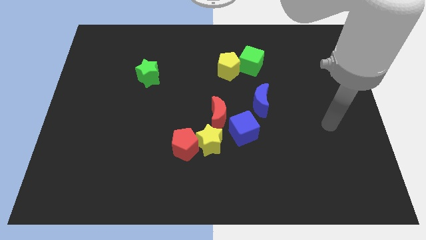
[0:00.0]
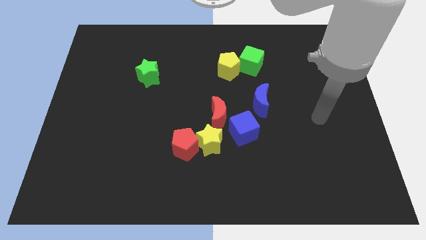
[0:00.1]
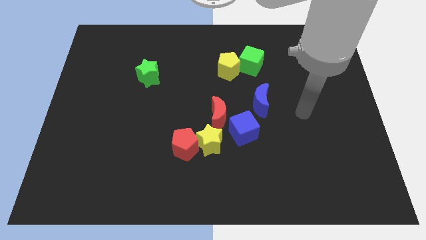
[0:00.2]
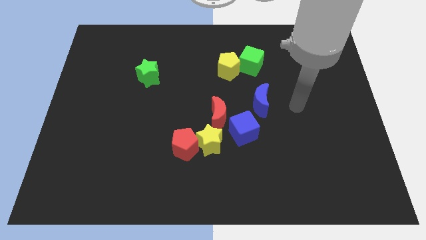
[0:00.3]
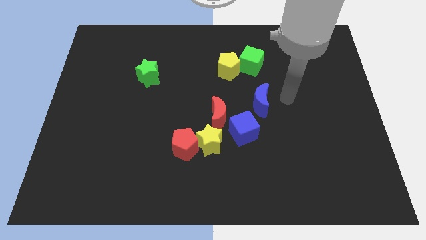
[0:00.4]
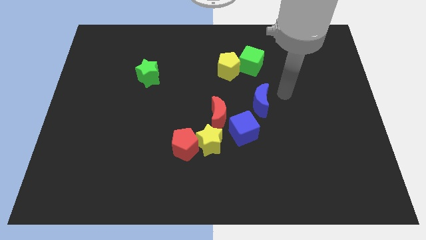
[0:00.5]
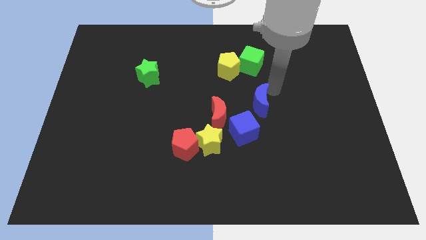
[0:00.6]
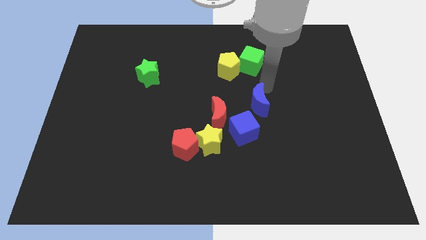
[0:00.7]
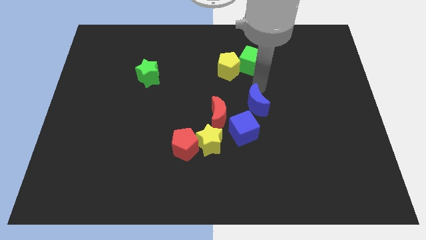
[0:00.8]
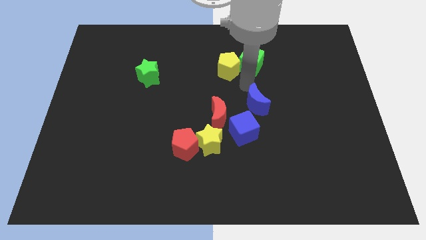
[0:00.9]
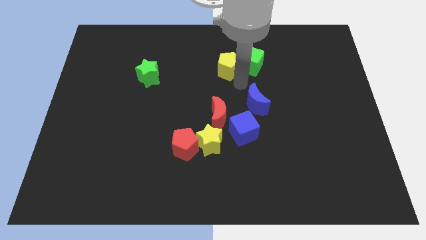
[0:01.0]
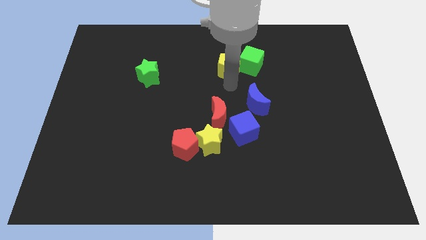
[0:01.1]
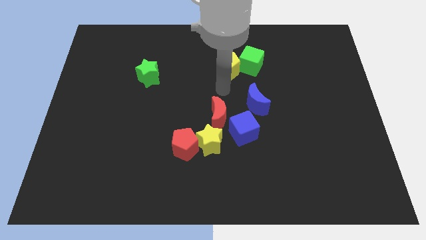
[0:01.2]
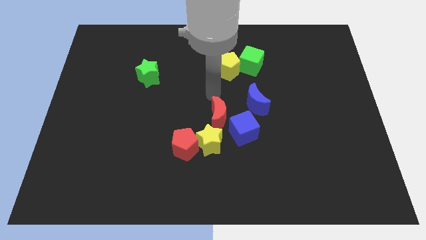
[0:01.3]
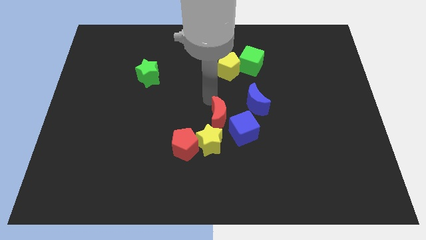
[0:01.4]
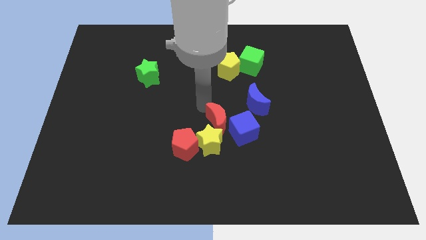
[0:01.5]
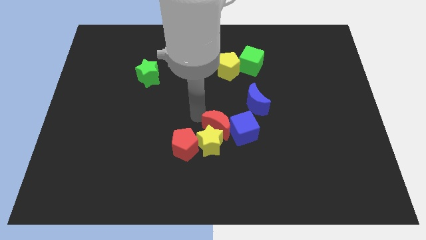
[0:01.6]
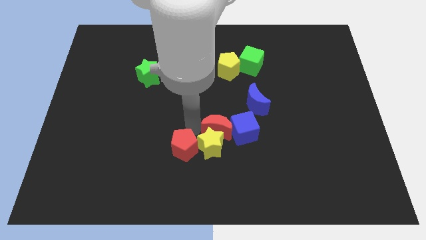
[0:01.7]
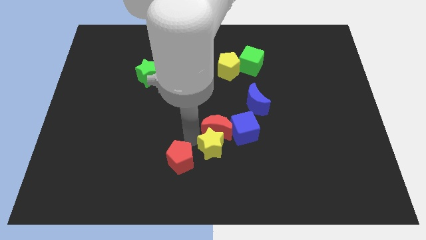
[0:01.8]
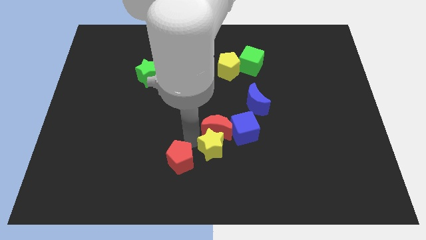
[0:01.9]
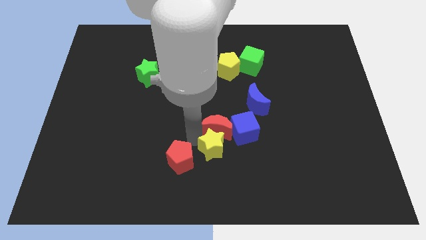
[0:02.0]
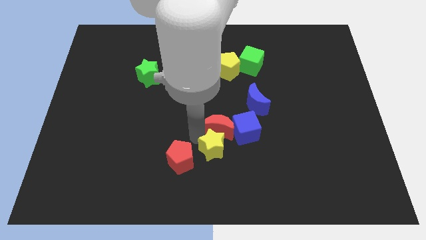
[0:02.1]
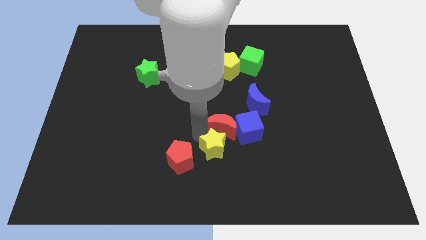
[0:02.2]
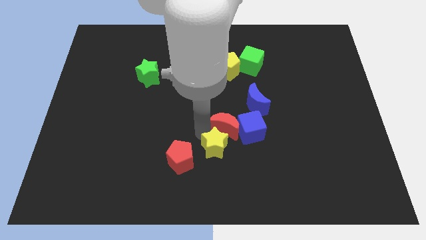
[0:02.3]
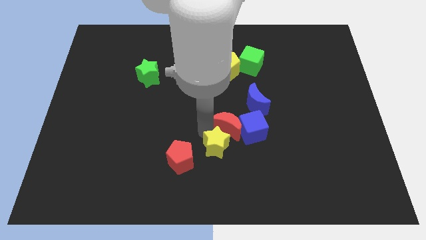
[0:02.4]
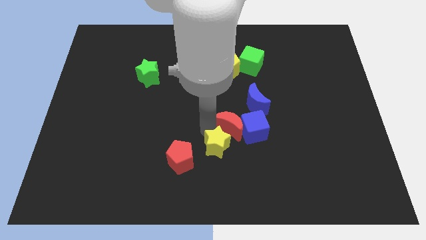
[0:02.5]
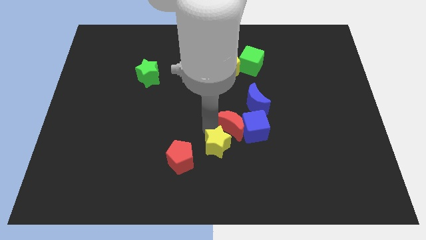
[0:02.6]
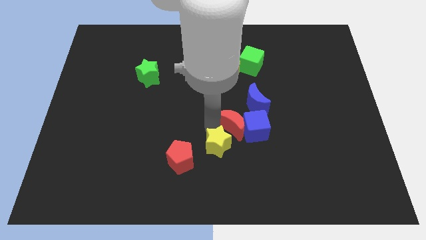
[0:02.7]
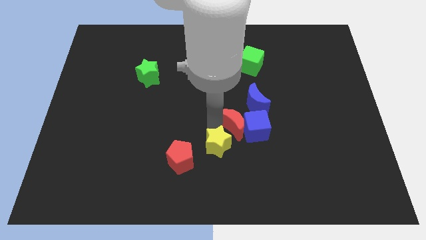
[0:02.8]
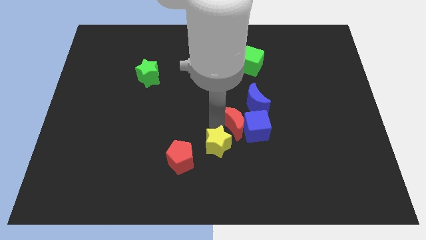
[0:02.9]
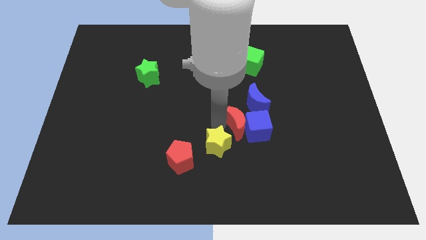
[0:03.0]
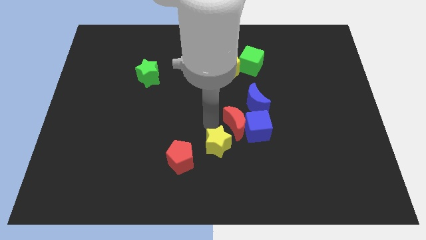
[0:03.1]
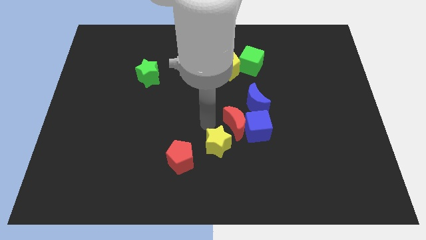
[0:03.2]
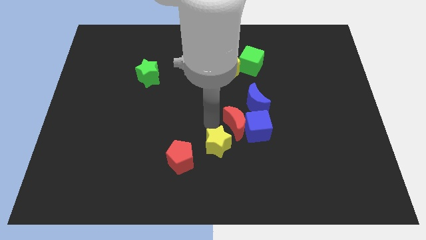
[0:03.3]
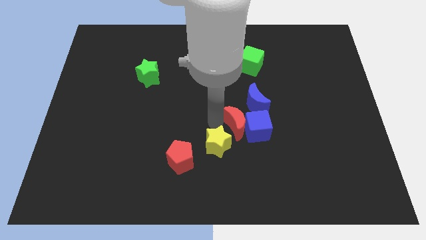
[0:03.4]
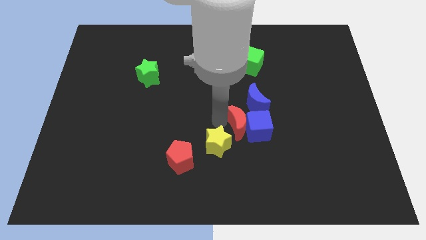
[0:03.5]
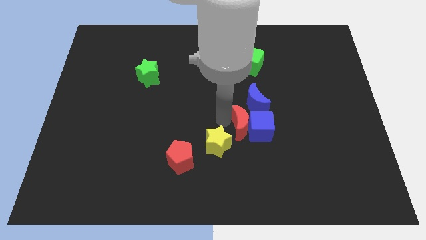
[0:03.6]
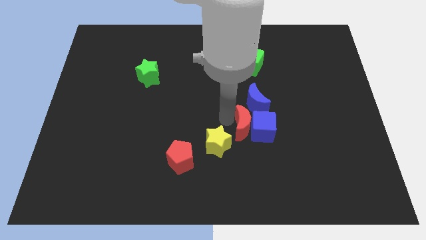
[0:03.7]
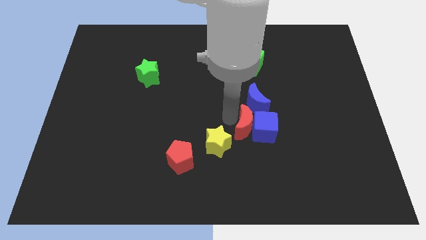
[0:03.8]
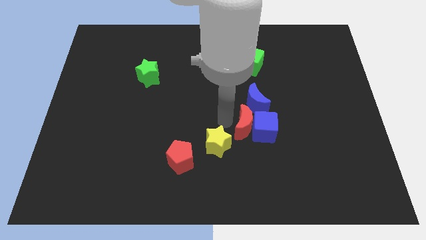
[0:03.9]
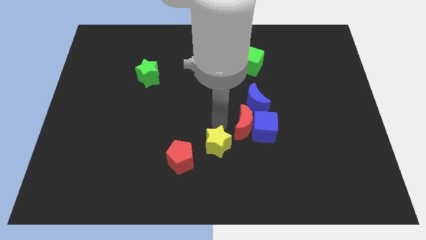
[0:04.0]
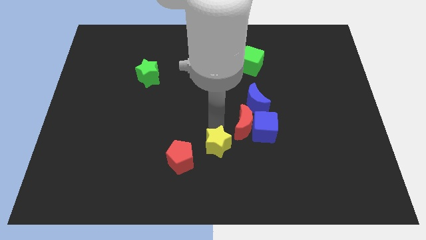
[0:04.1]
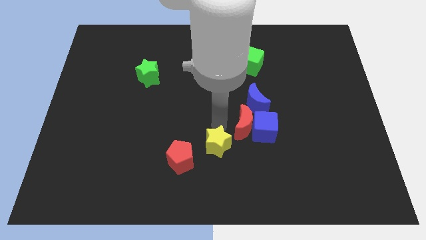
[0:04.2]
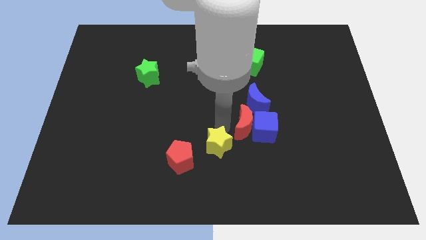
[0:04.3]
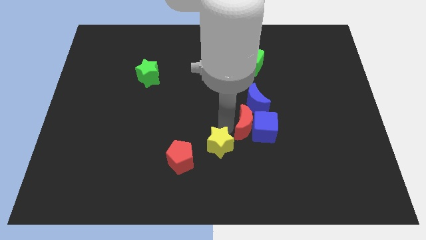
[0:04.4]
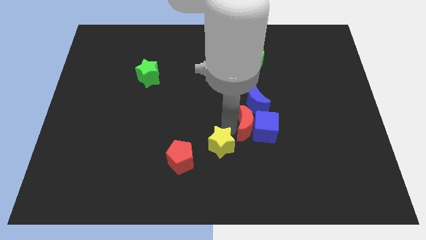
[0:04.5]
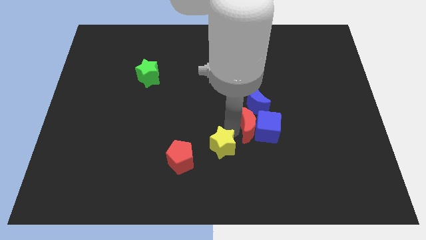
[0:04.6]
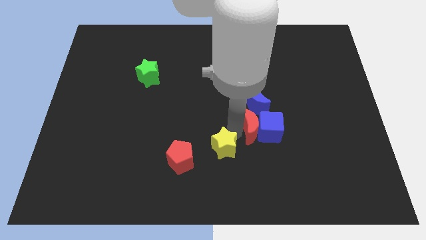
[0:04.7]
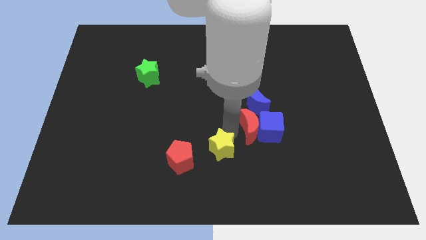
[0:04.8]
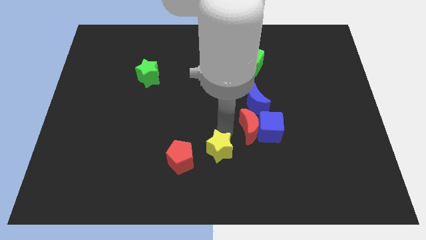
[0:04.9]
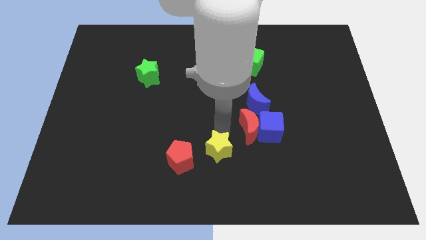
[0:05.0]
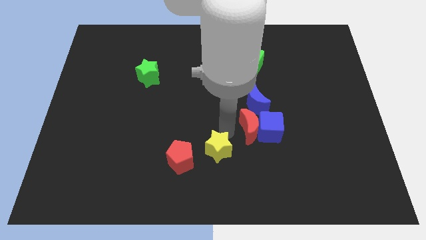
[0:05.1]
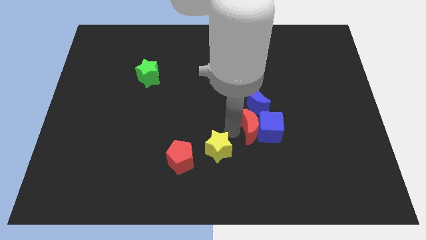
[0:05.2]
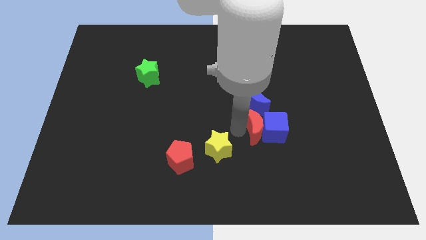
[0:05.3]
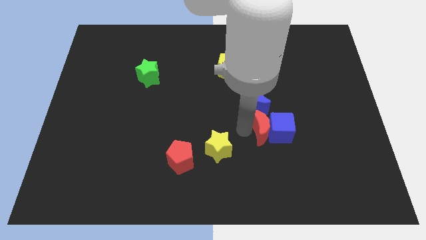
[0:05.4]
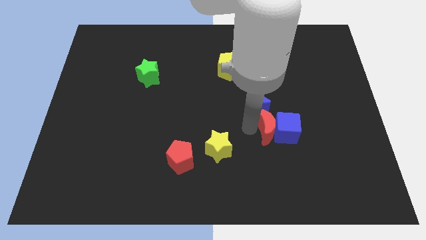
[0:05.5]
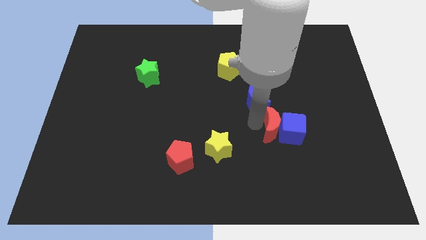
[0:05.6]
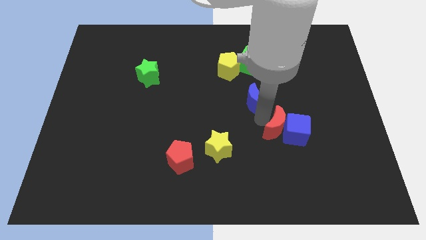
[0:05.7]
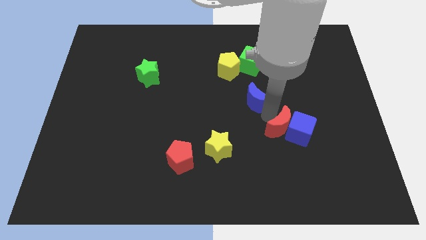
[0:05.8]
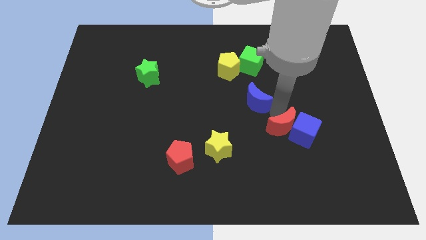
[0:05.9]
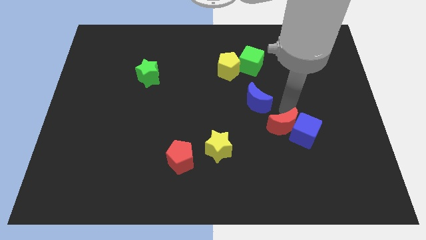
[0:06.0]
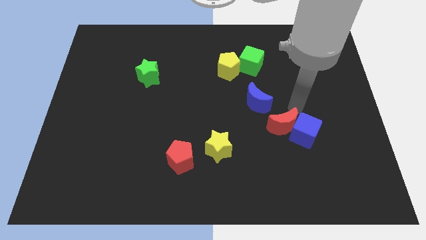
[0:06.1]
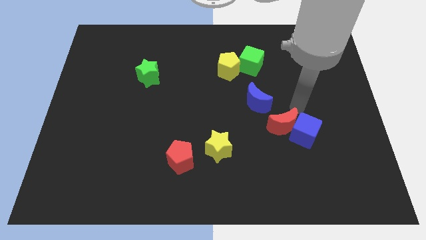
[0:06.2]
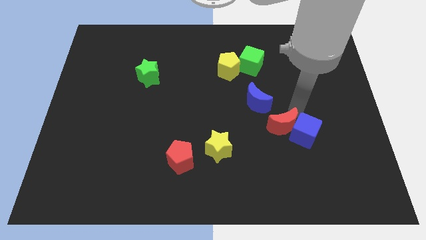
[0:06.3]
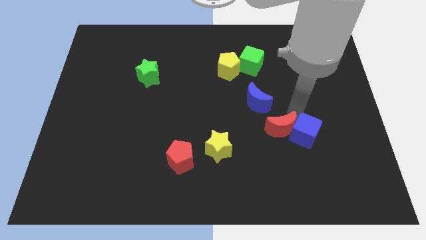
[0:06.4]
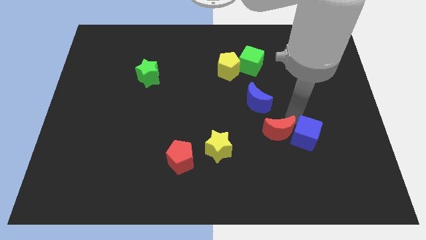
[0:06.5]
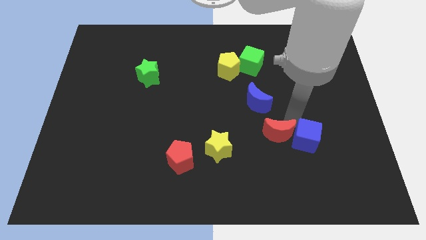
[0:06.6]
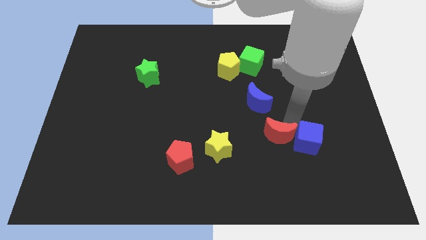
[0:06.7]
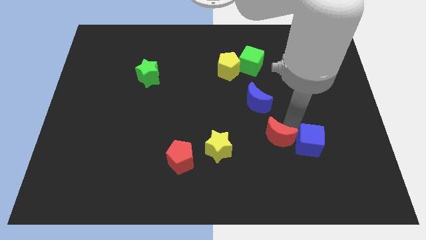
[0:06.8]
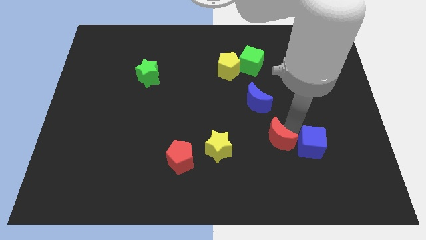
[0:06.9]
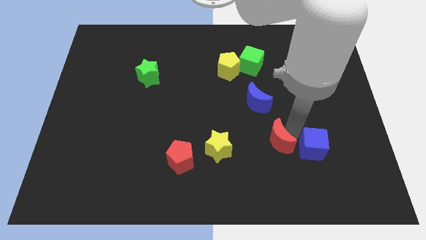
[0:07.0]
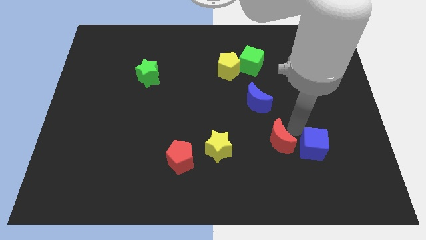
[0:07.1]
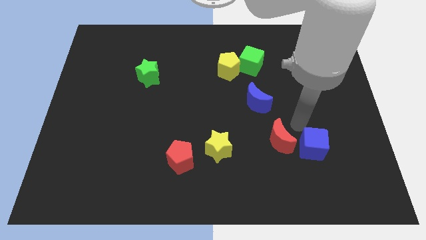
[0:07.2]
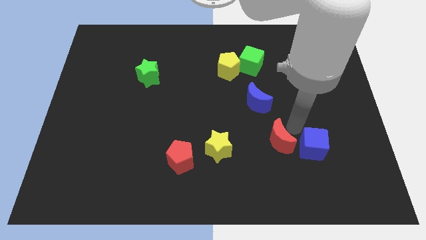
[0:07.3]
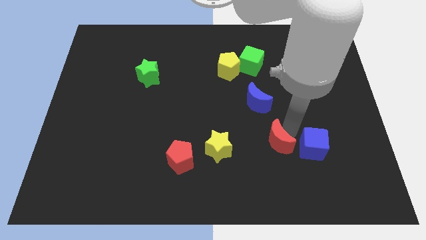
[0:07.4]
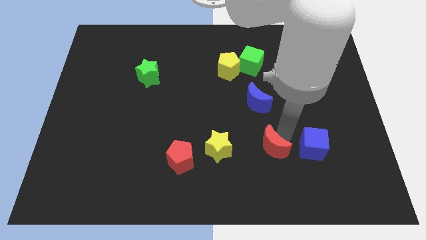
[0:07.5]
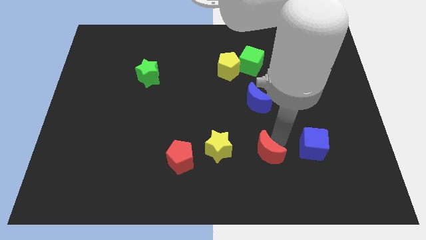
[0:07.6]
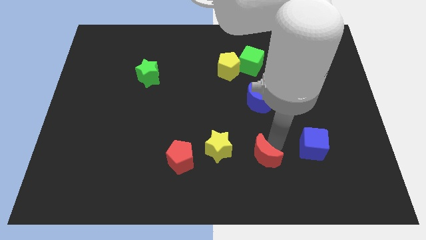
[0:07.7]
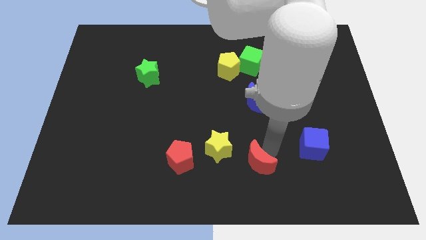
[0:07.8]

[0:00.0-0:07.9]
push the red moon diagonally down and to the right of the yellow star
